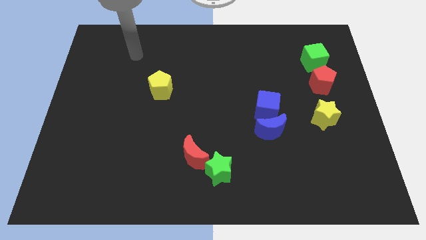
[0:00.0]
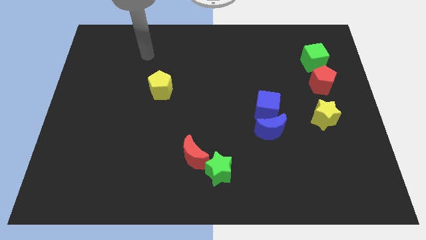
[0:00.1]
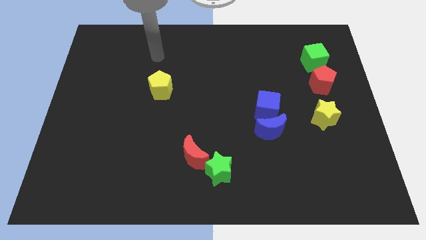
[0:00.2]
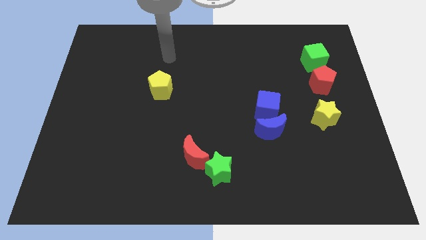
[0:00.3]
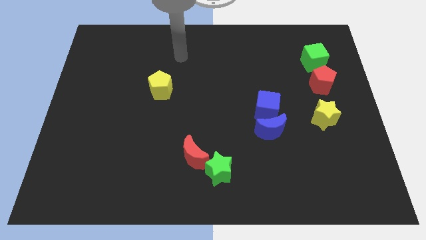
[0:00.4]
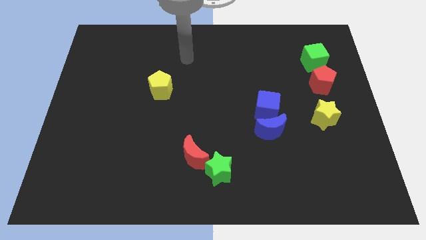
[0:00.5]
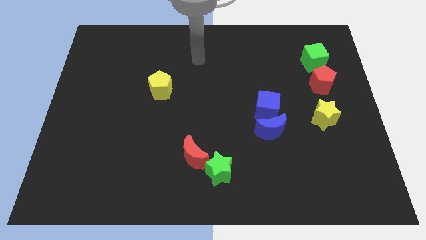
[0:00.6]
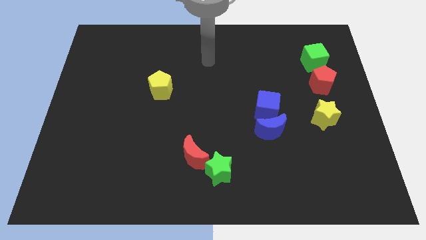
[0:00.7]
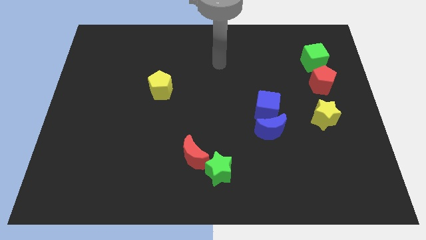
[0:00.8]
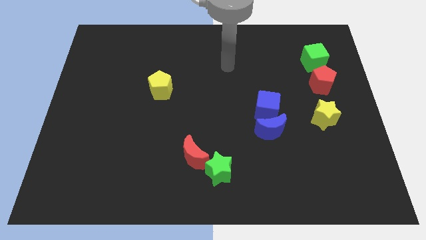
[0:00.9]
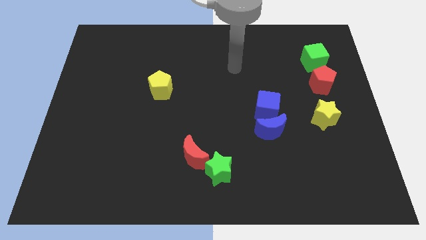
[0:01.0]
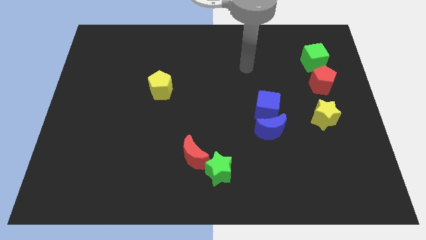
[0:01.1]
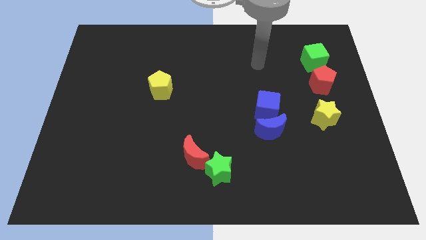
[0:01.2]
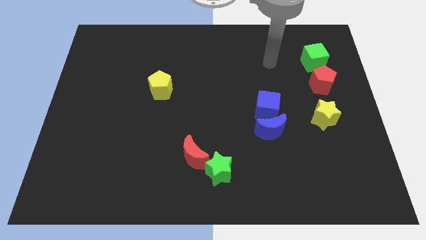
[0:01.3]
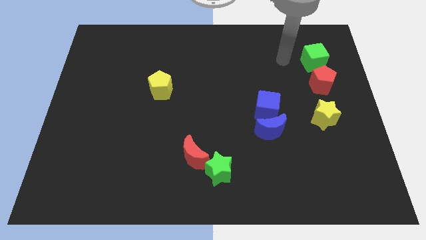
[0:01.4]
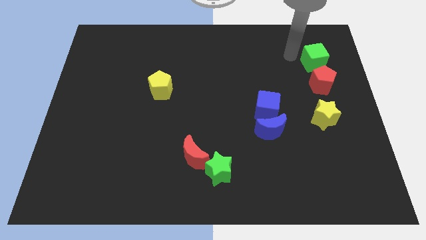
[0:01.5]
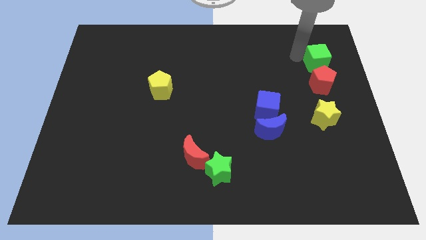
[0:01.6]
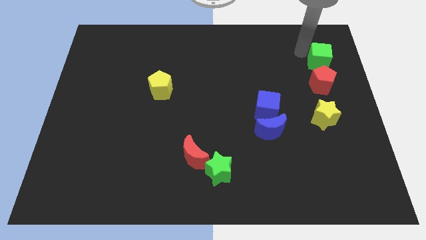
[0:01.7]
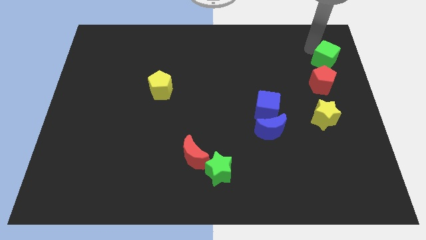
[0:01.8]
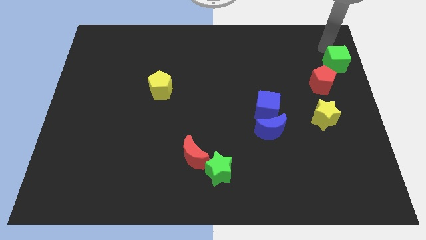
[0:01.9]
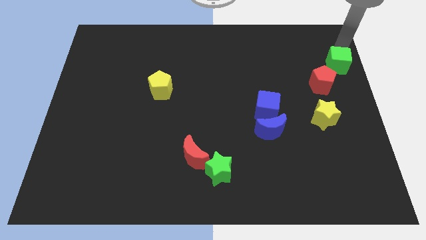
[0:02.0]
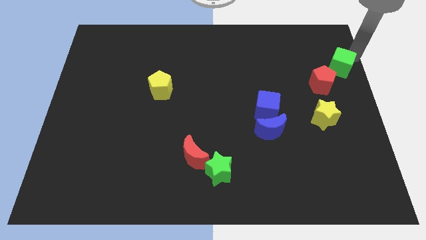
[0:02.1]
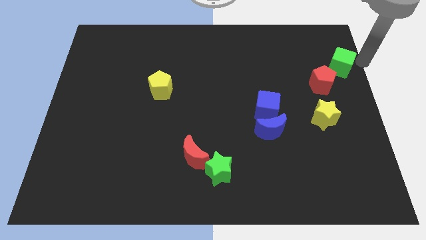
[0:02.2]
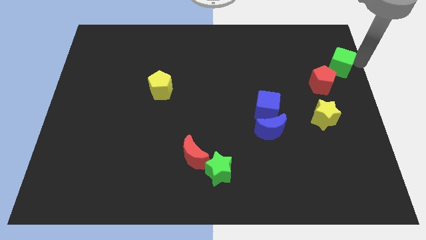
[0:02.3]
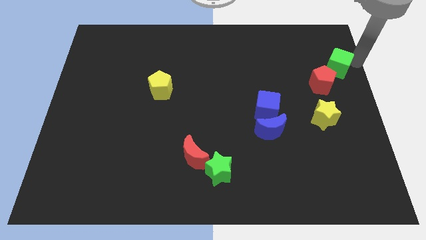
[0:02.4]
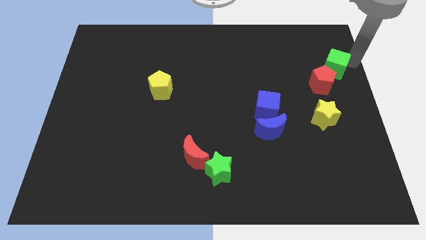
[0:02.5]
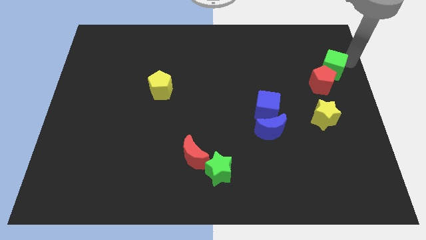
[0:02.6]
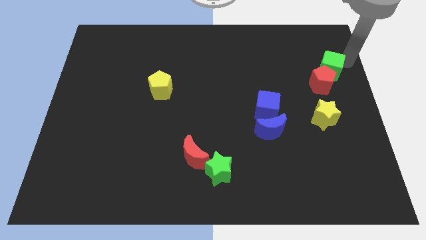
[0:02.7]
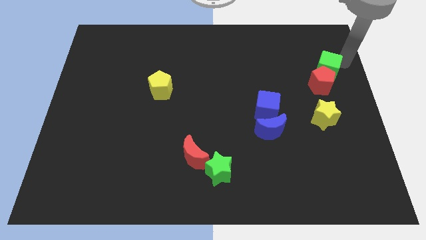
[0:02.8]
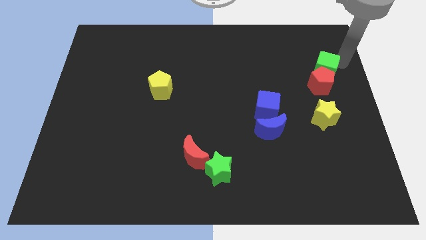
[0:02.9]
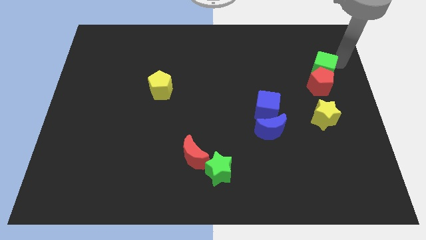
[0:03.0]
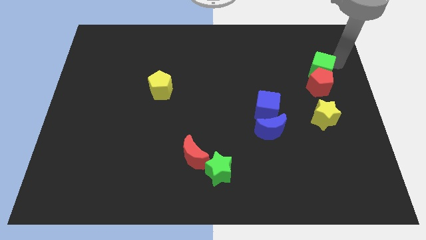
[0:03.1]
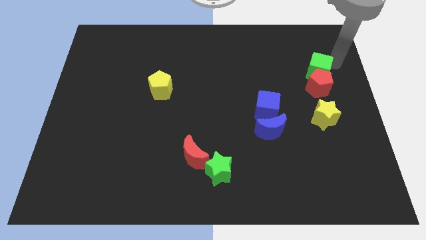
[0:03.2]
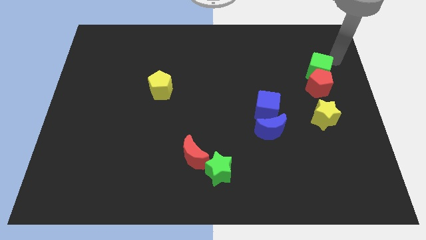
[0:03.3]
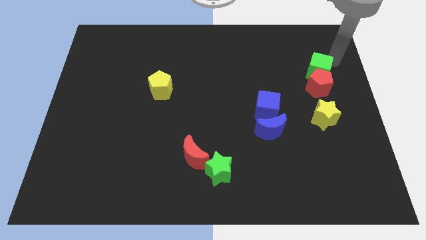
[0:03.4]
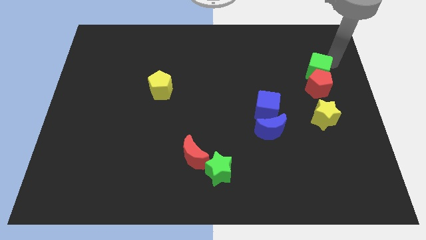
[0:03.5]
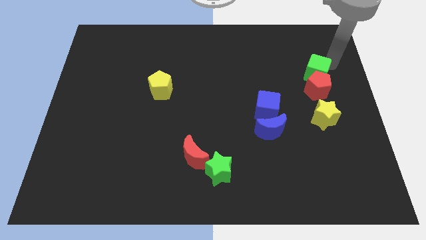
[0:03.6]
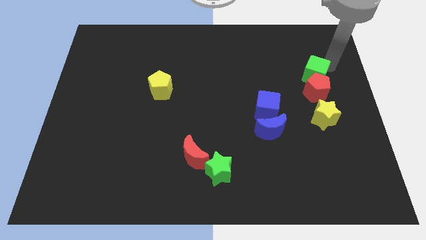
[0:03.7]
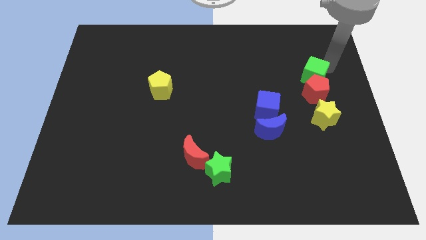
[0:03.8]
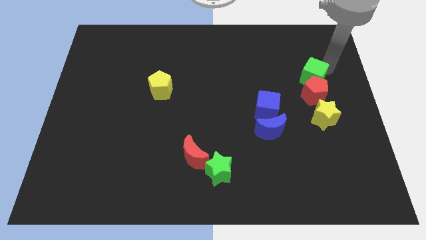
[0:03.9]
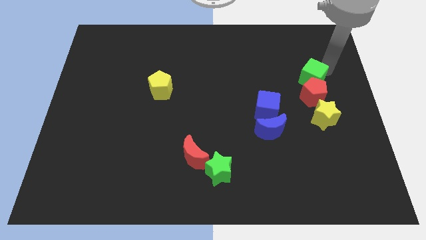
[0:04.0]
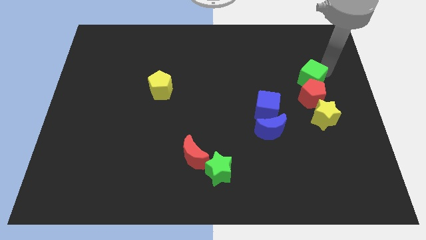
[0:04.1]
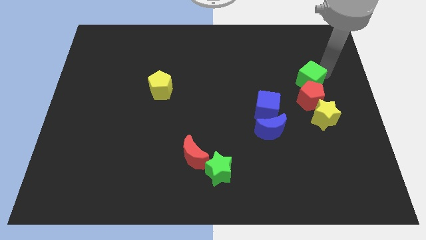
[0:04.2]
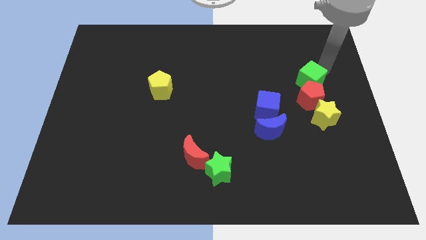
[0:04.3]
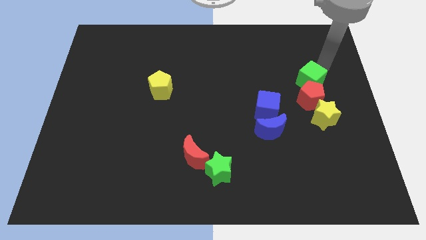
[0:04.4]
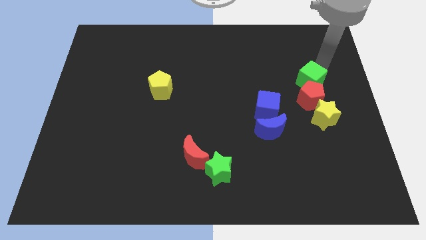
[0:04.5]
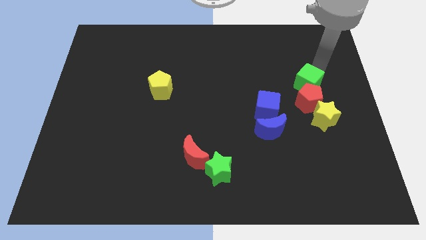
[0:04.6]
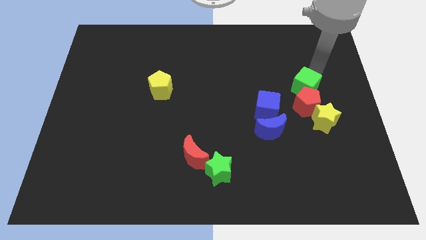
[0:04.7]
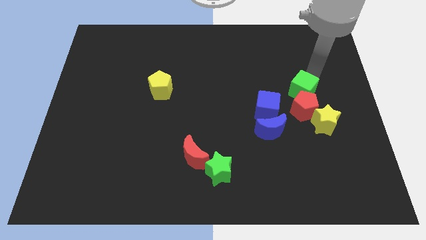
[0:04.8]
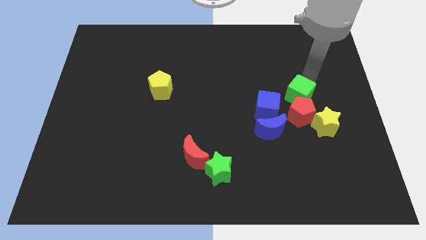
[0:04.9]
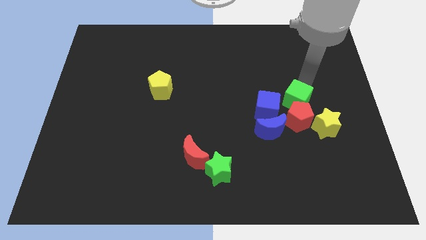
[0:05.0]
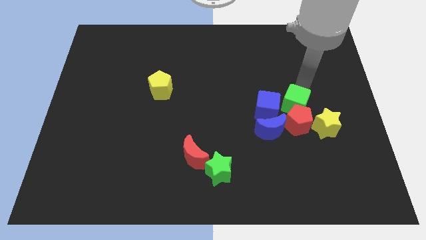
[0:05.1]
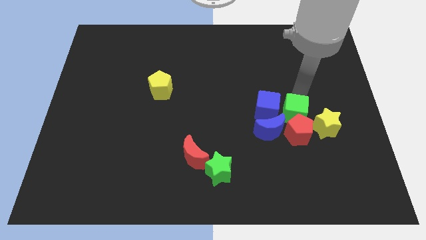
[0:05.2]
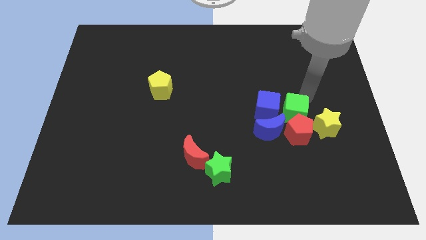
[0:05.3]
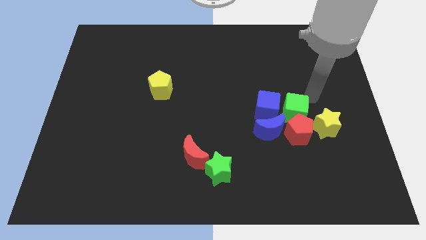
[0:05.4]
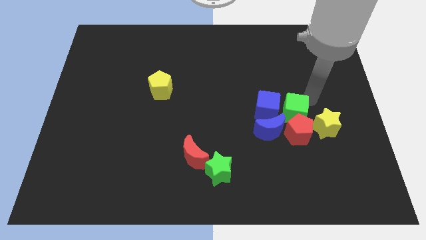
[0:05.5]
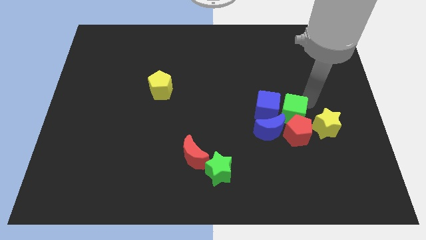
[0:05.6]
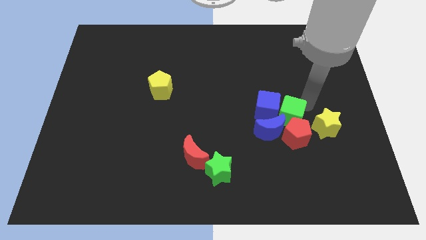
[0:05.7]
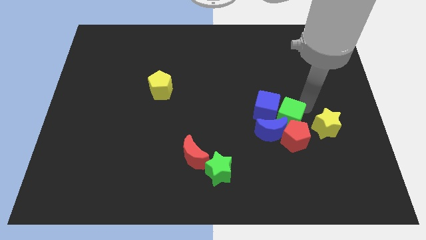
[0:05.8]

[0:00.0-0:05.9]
slide the green cube towards the blue moon

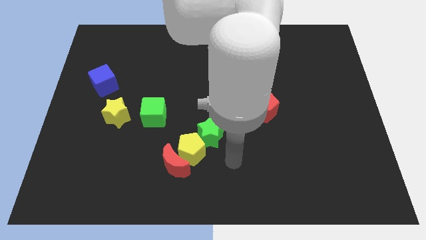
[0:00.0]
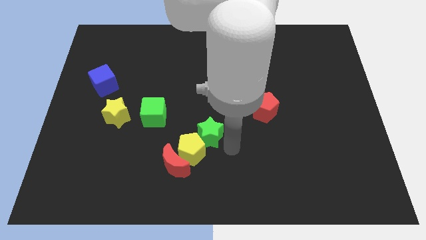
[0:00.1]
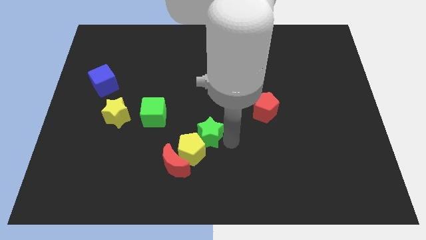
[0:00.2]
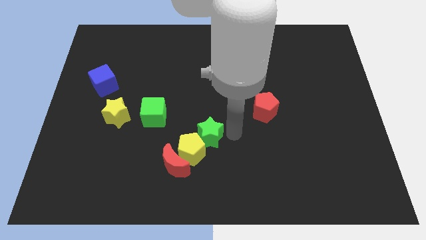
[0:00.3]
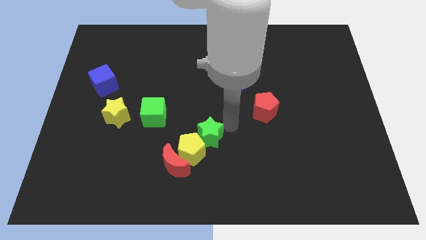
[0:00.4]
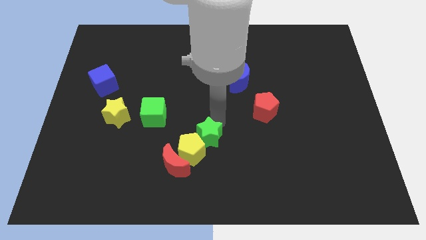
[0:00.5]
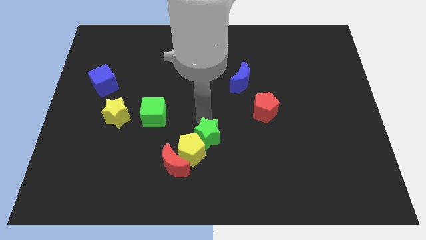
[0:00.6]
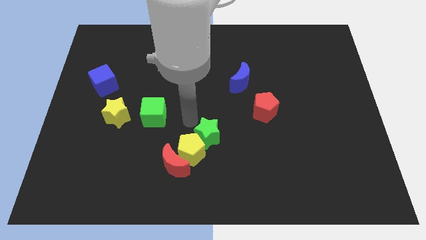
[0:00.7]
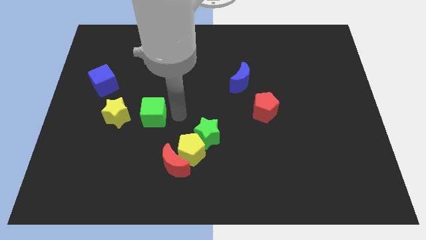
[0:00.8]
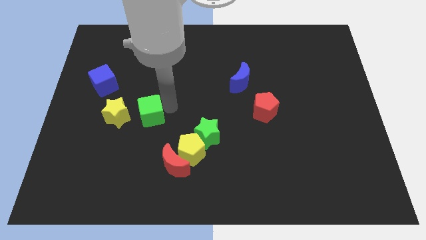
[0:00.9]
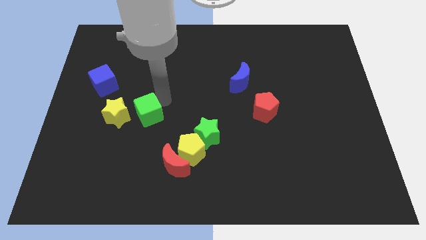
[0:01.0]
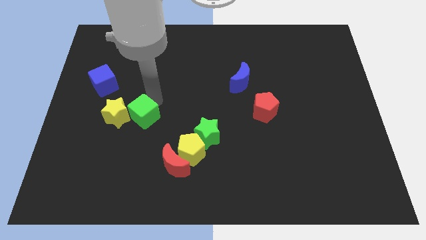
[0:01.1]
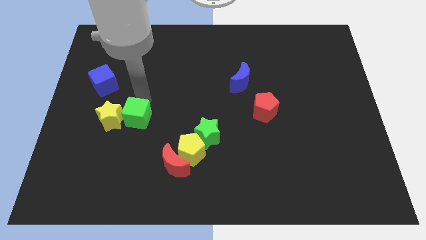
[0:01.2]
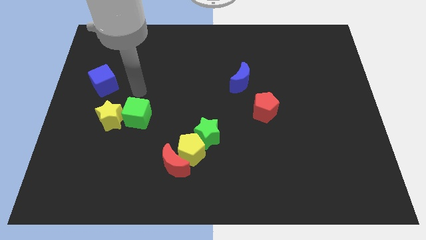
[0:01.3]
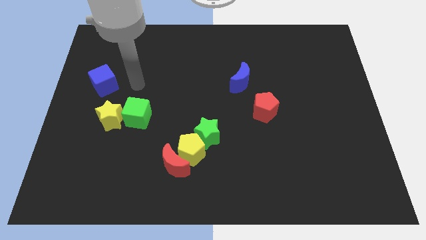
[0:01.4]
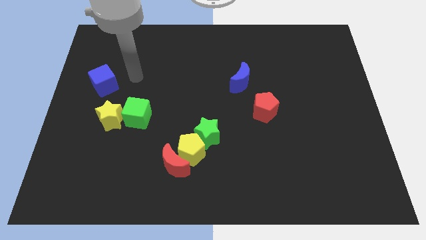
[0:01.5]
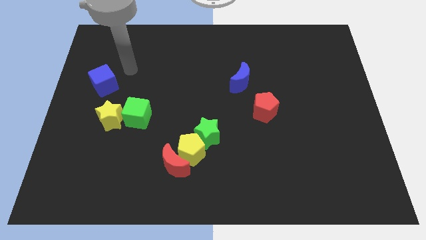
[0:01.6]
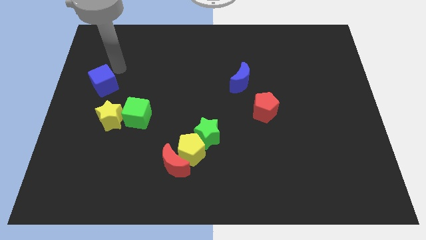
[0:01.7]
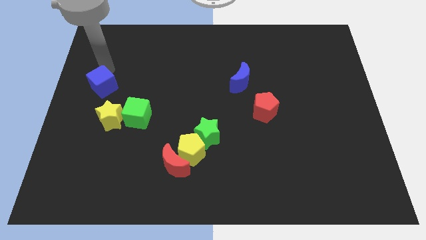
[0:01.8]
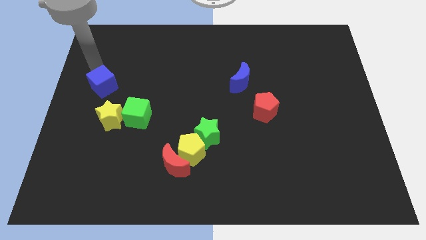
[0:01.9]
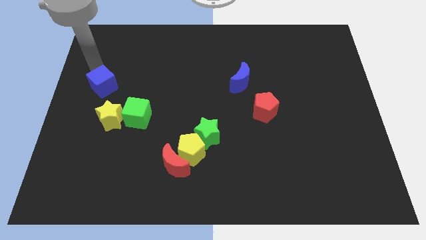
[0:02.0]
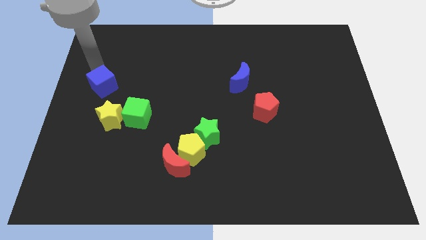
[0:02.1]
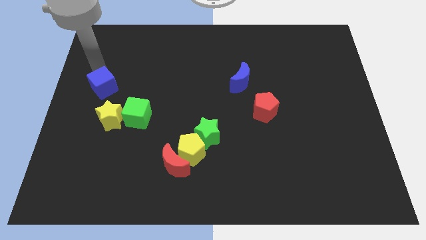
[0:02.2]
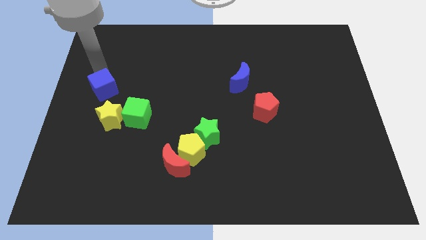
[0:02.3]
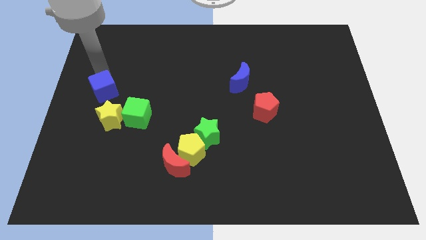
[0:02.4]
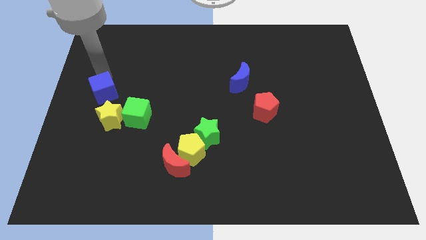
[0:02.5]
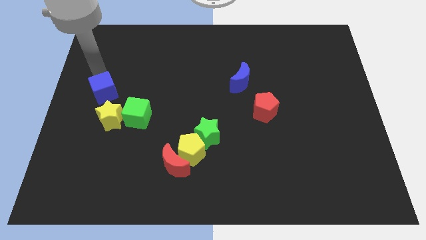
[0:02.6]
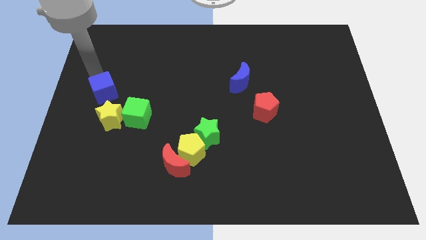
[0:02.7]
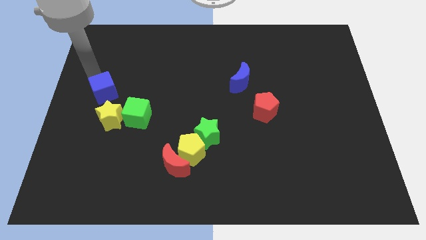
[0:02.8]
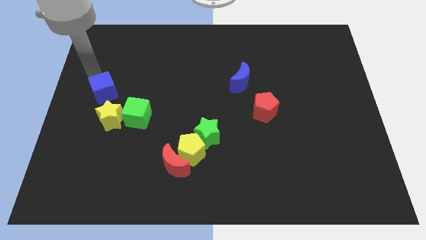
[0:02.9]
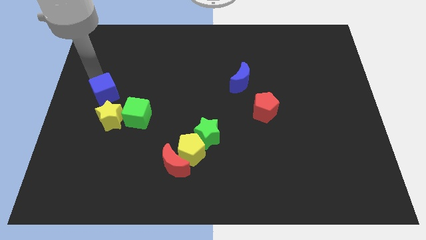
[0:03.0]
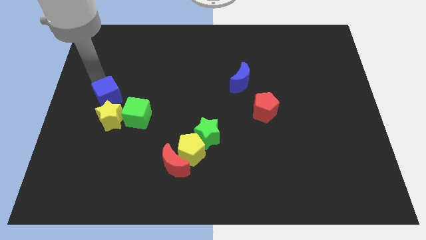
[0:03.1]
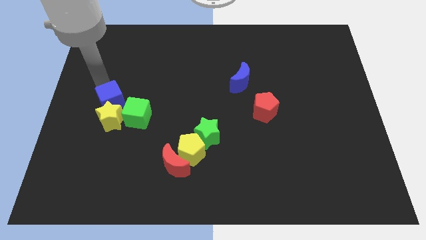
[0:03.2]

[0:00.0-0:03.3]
push the blue cube towards the yellow star
